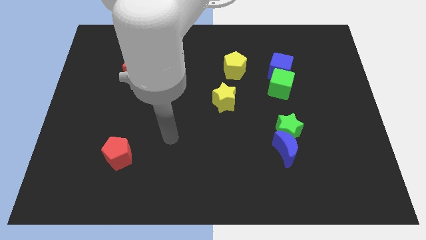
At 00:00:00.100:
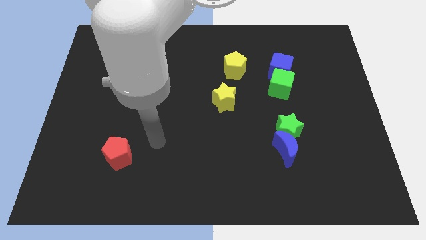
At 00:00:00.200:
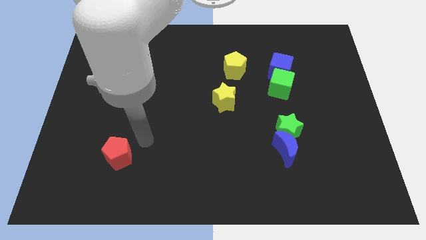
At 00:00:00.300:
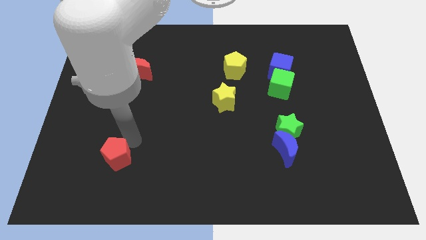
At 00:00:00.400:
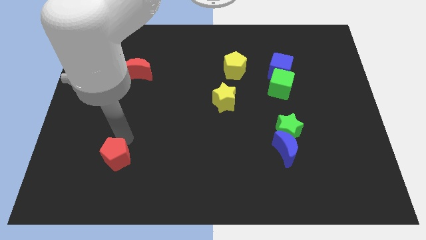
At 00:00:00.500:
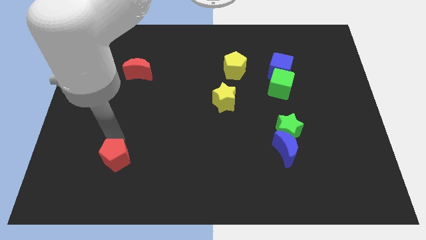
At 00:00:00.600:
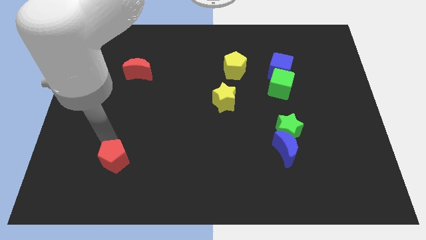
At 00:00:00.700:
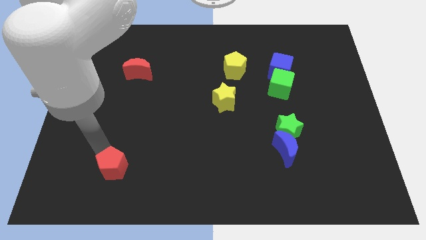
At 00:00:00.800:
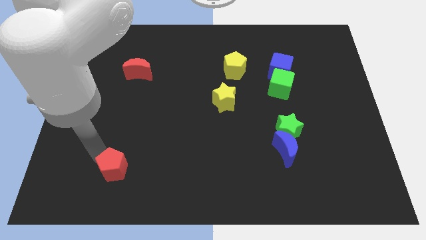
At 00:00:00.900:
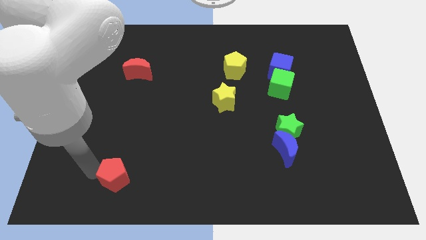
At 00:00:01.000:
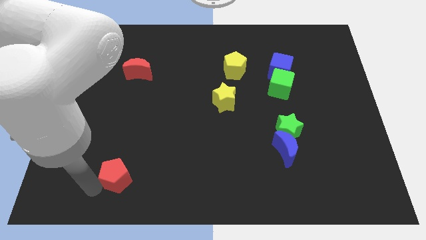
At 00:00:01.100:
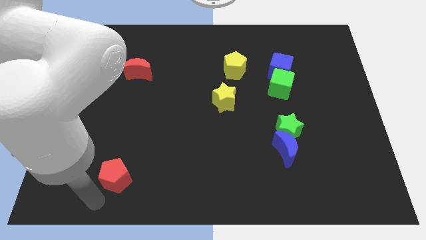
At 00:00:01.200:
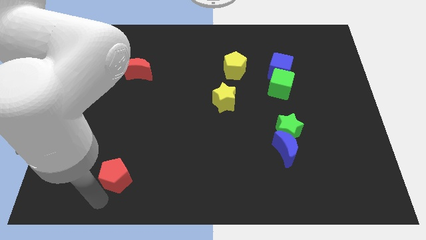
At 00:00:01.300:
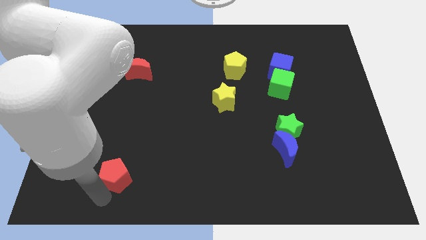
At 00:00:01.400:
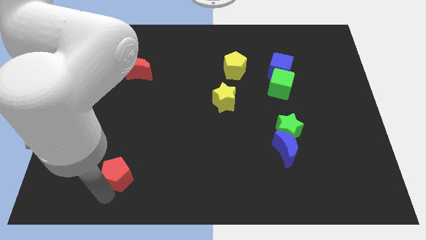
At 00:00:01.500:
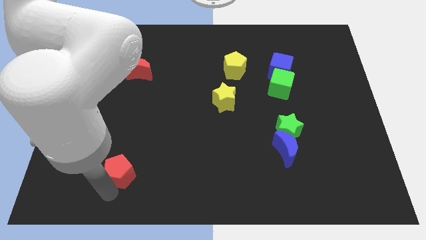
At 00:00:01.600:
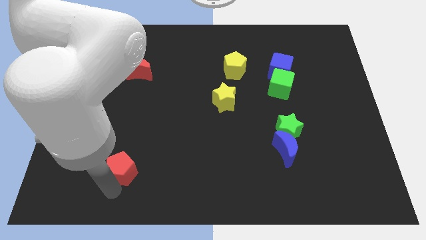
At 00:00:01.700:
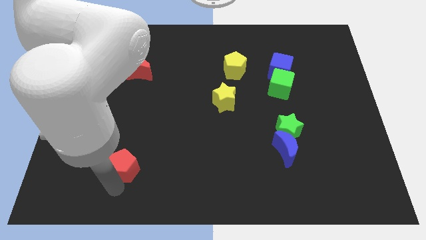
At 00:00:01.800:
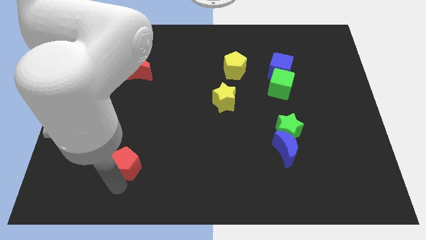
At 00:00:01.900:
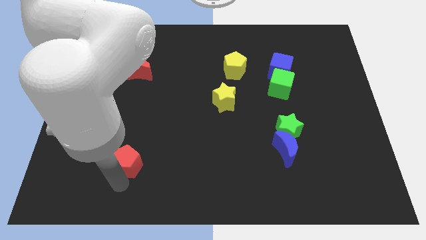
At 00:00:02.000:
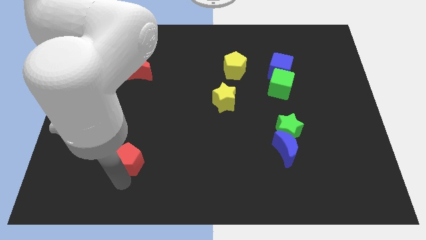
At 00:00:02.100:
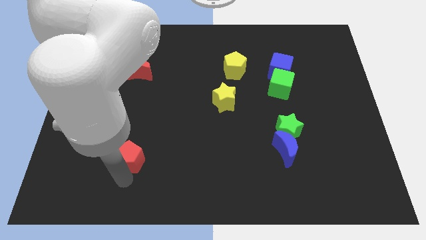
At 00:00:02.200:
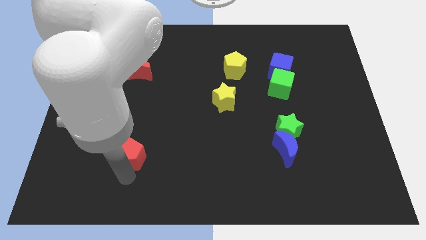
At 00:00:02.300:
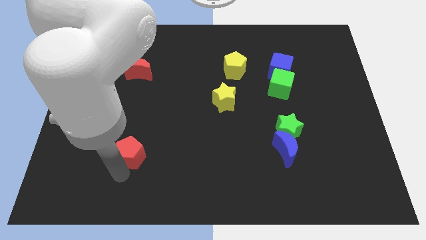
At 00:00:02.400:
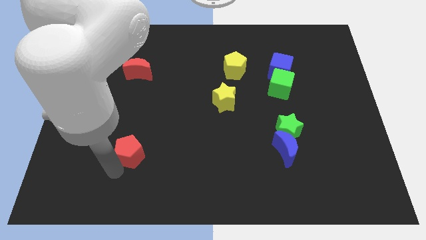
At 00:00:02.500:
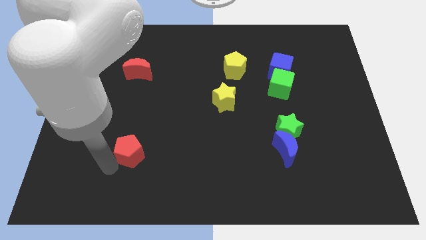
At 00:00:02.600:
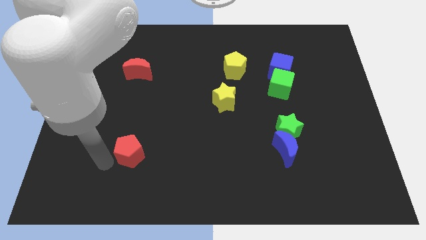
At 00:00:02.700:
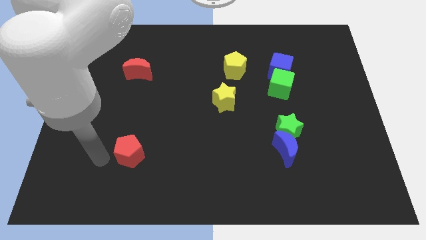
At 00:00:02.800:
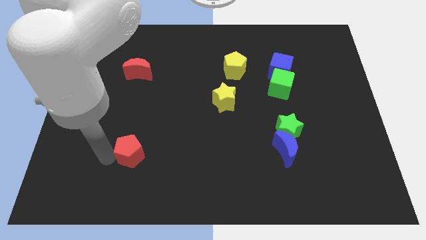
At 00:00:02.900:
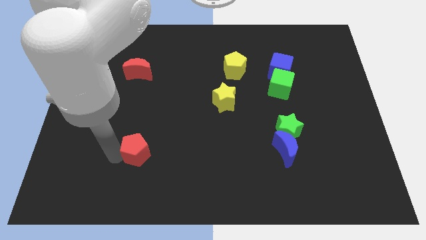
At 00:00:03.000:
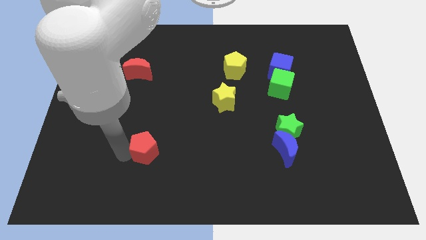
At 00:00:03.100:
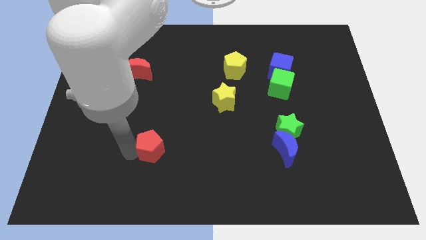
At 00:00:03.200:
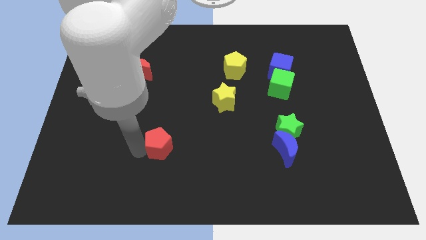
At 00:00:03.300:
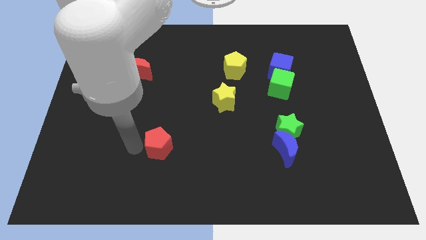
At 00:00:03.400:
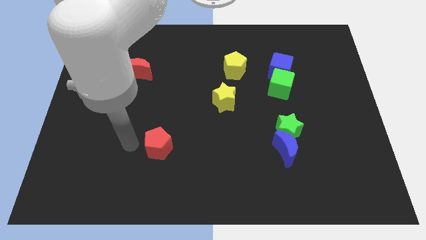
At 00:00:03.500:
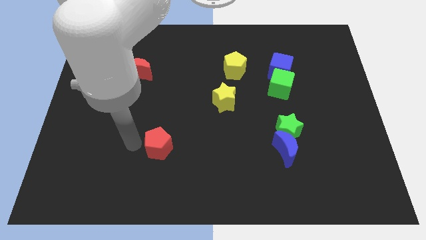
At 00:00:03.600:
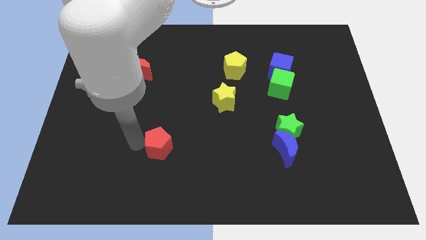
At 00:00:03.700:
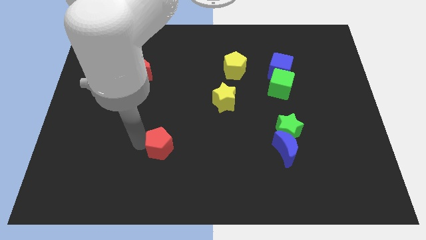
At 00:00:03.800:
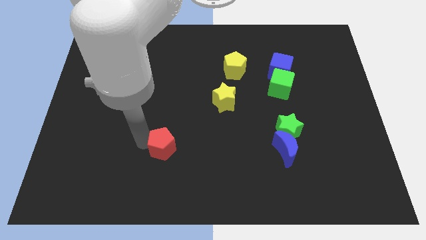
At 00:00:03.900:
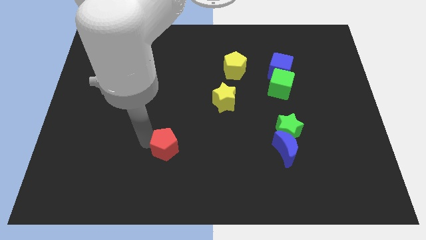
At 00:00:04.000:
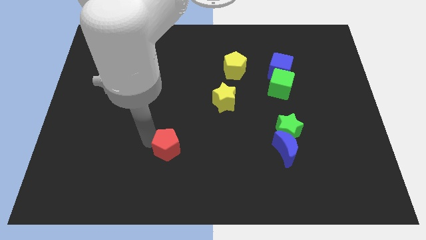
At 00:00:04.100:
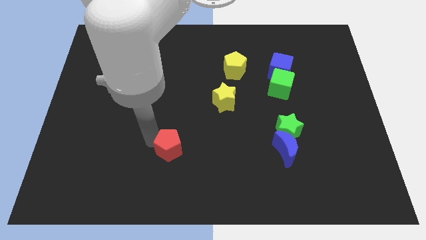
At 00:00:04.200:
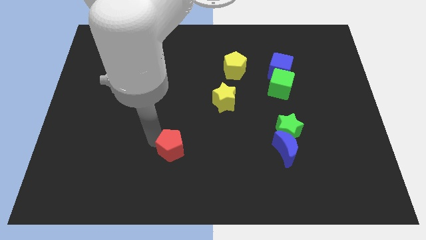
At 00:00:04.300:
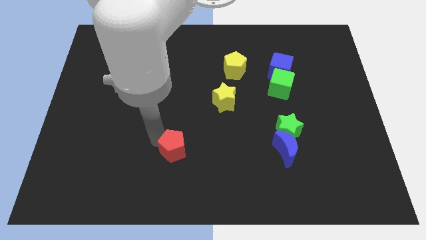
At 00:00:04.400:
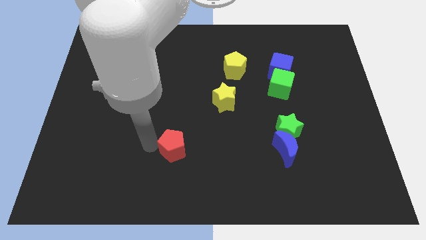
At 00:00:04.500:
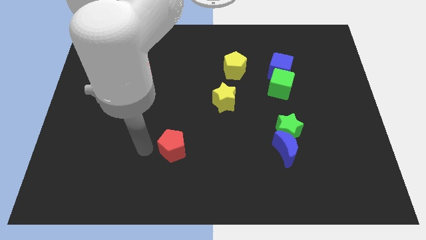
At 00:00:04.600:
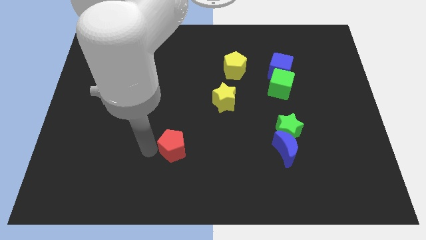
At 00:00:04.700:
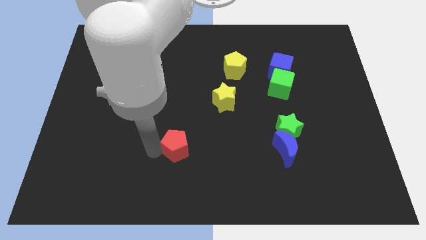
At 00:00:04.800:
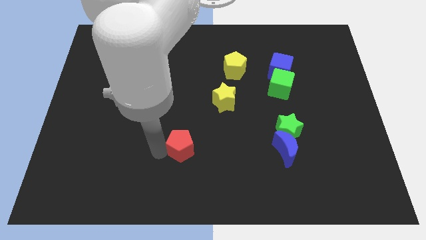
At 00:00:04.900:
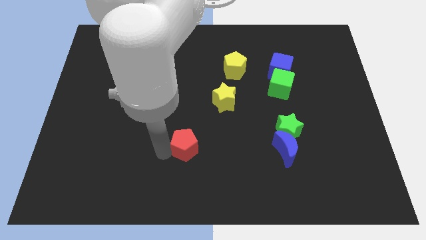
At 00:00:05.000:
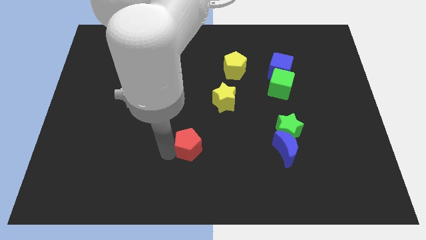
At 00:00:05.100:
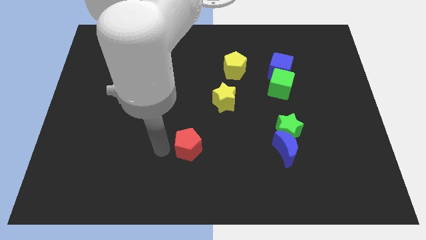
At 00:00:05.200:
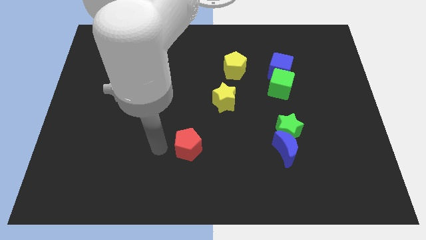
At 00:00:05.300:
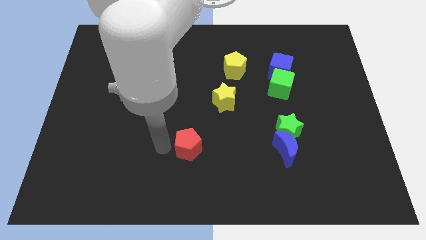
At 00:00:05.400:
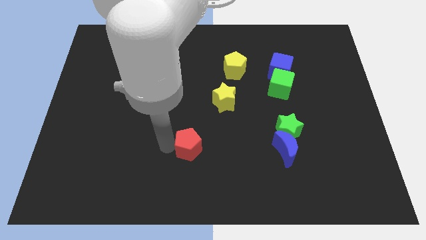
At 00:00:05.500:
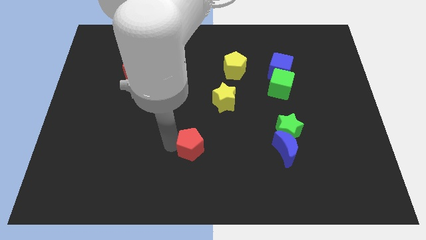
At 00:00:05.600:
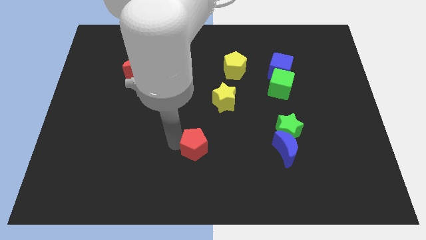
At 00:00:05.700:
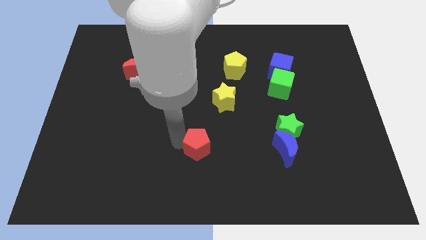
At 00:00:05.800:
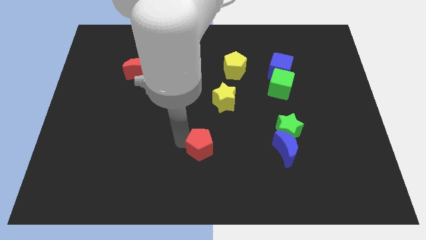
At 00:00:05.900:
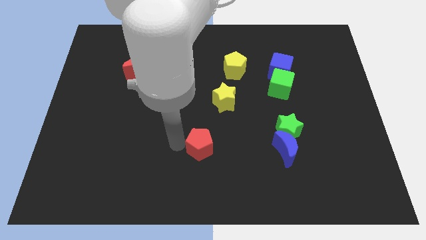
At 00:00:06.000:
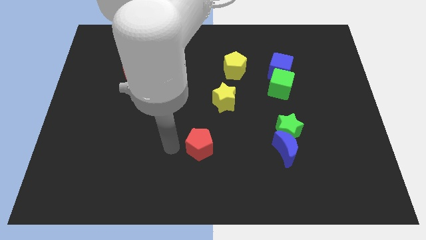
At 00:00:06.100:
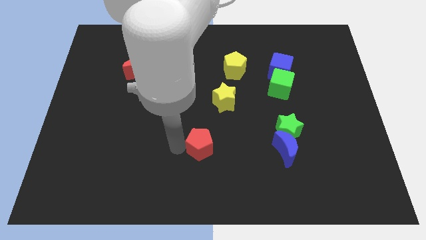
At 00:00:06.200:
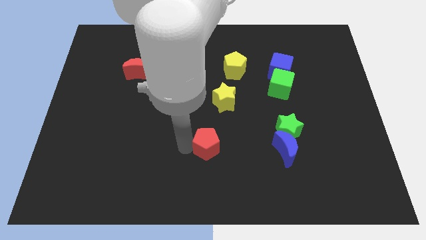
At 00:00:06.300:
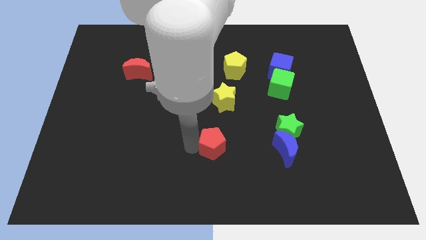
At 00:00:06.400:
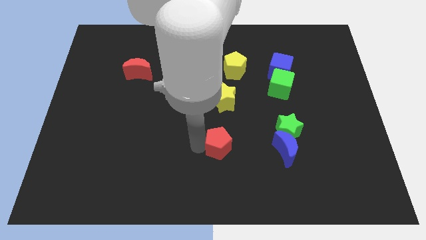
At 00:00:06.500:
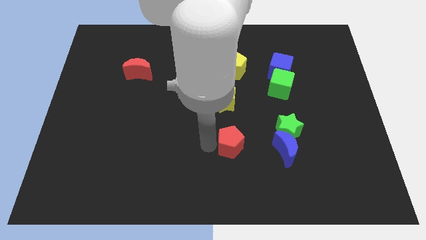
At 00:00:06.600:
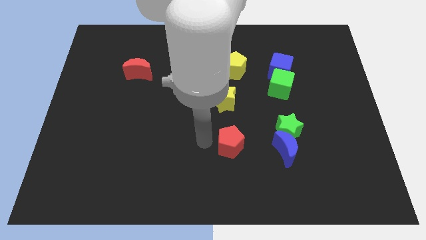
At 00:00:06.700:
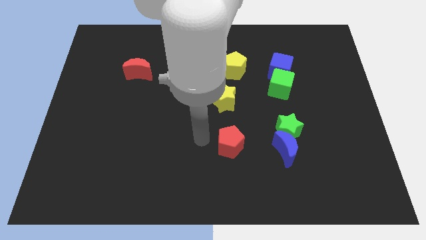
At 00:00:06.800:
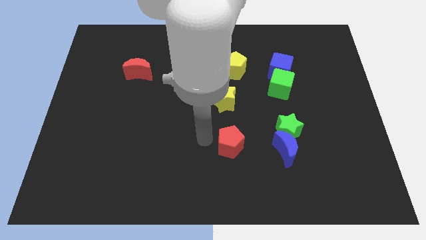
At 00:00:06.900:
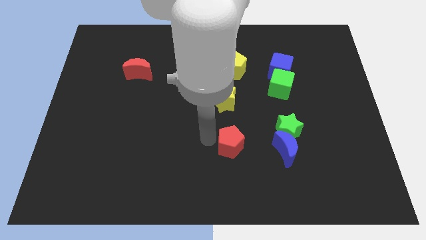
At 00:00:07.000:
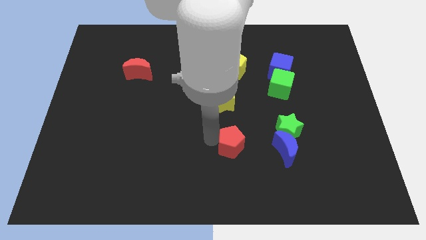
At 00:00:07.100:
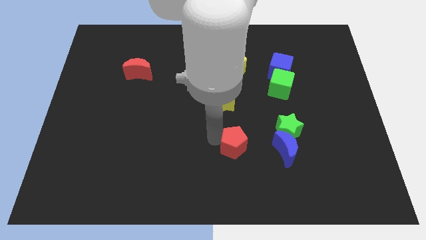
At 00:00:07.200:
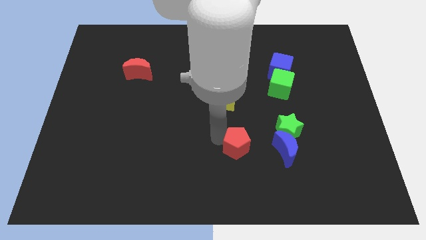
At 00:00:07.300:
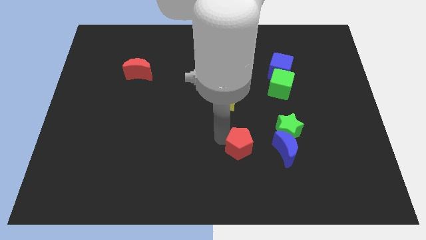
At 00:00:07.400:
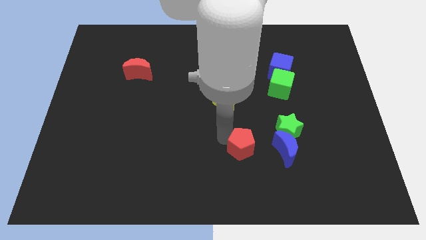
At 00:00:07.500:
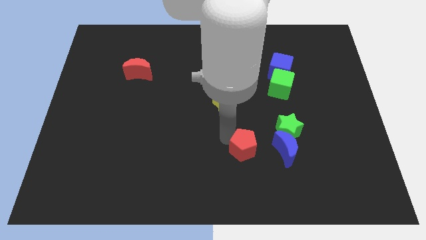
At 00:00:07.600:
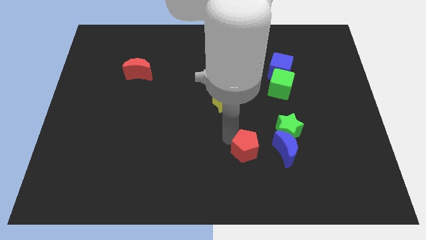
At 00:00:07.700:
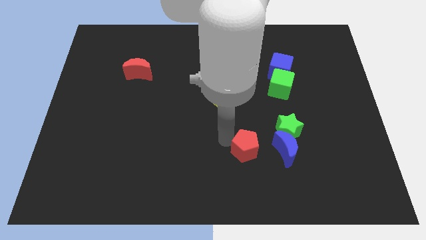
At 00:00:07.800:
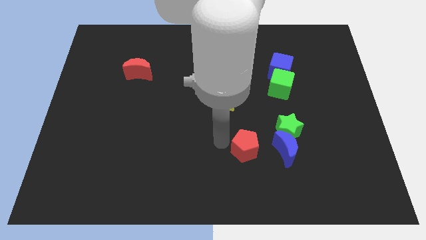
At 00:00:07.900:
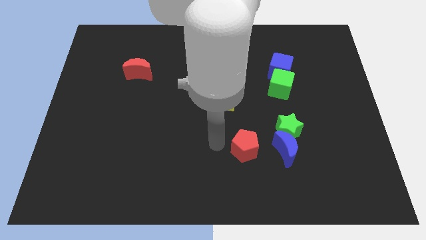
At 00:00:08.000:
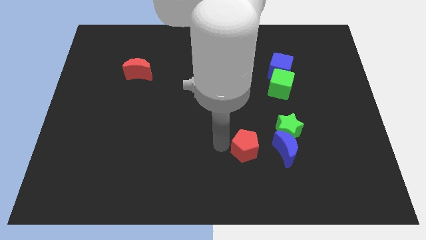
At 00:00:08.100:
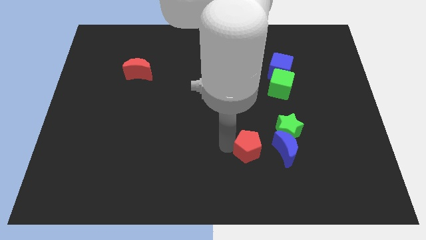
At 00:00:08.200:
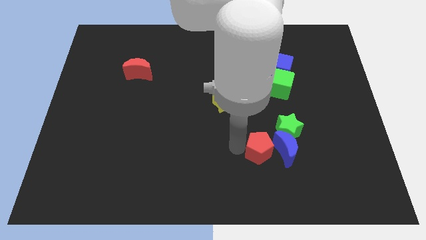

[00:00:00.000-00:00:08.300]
move the red pentagon towards the blue moon
